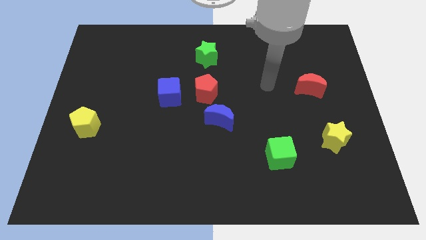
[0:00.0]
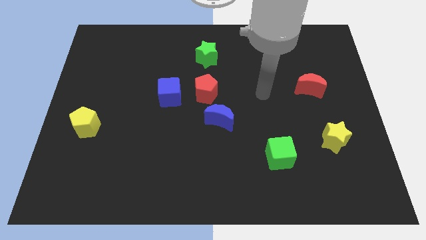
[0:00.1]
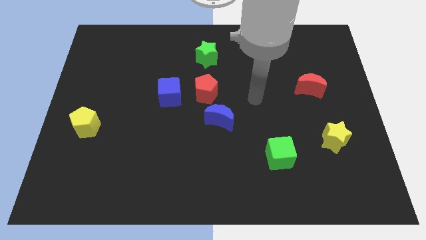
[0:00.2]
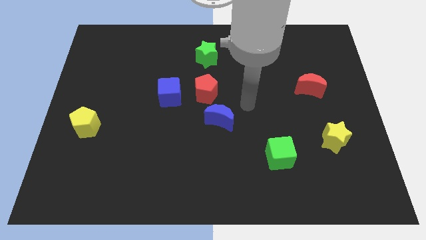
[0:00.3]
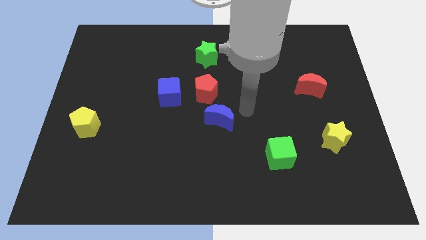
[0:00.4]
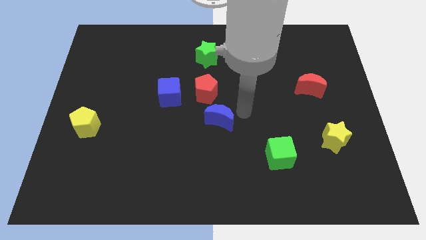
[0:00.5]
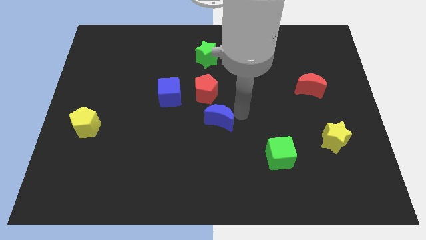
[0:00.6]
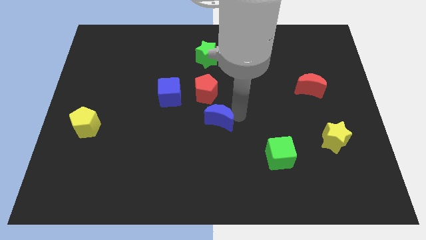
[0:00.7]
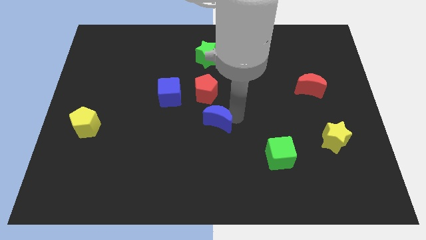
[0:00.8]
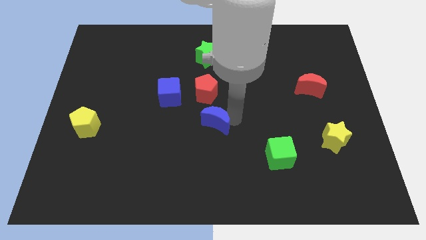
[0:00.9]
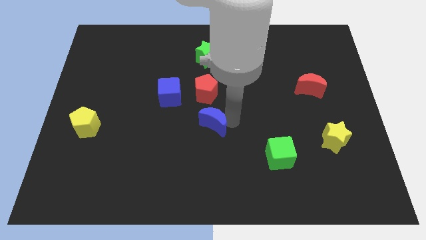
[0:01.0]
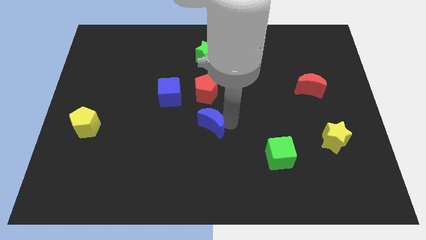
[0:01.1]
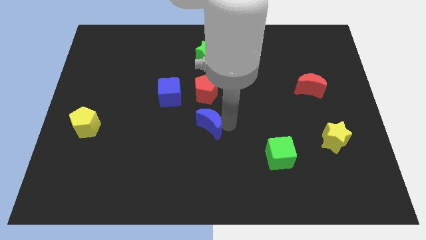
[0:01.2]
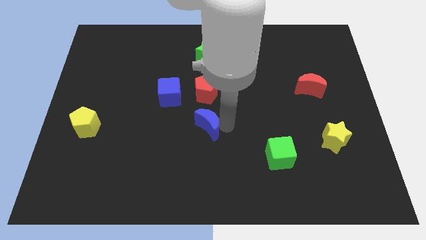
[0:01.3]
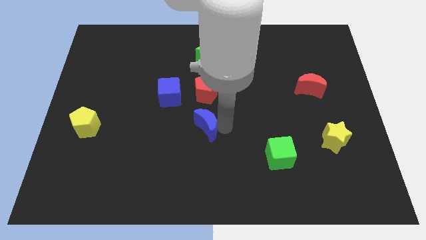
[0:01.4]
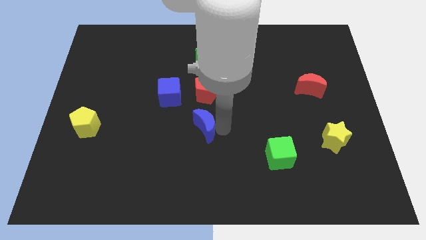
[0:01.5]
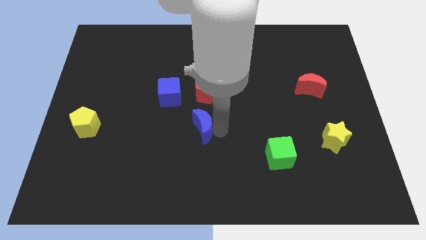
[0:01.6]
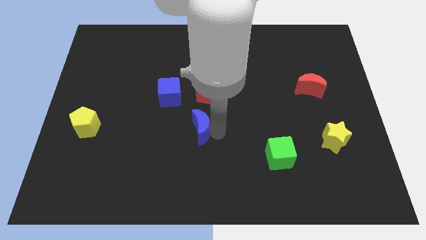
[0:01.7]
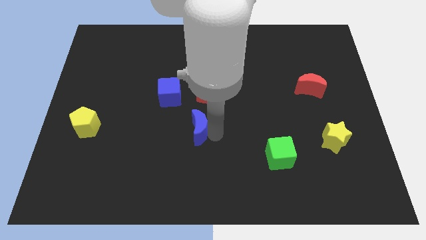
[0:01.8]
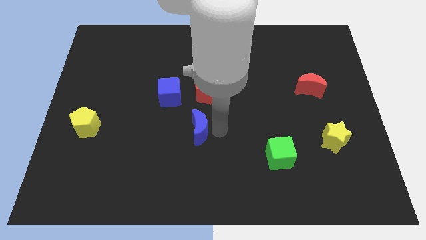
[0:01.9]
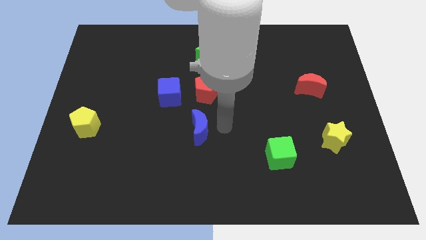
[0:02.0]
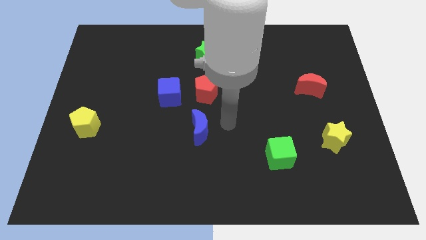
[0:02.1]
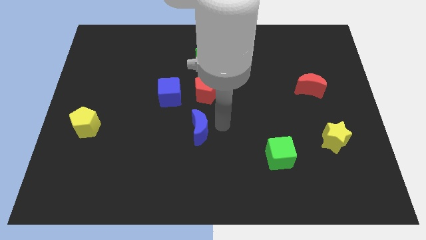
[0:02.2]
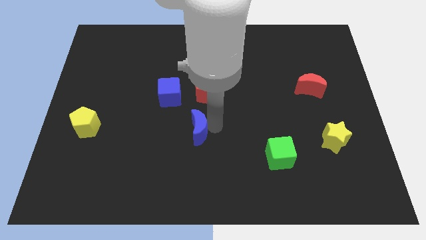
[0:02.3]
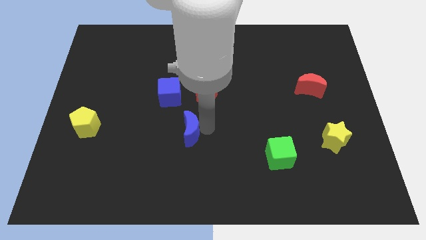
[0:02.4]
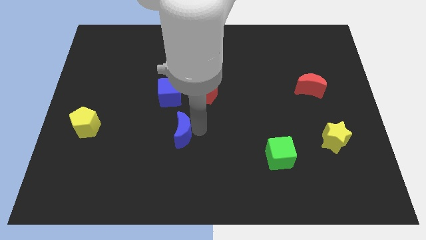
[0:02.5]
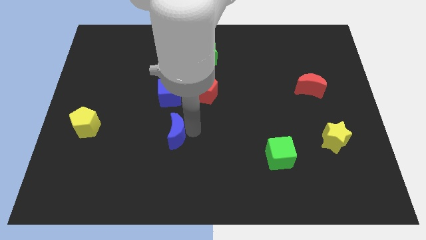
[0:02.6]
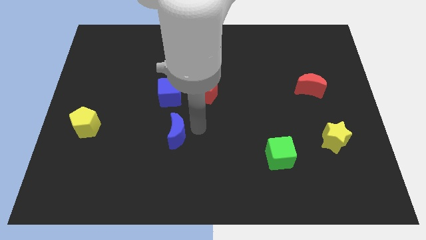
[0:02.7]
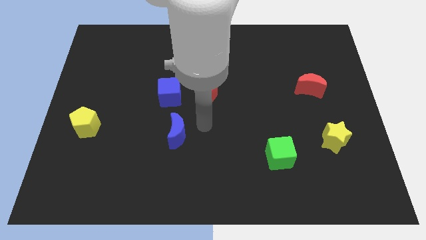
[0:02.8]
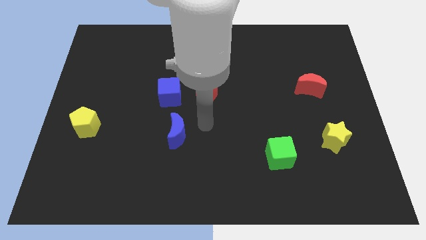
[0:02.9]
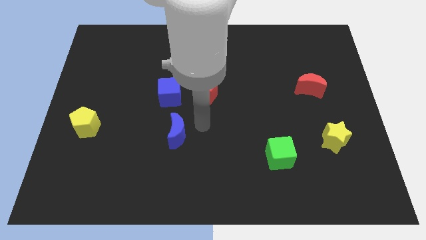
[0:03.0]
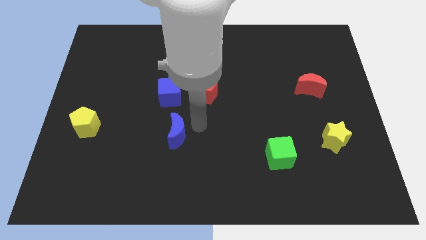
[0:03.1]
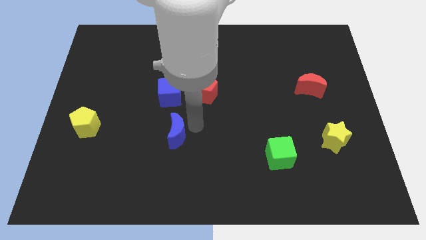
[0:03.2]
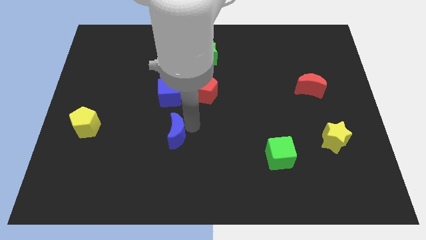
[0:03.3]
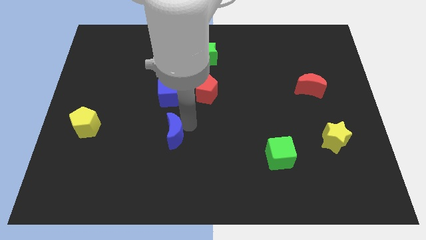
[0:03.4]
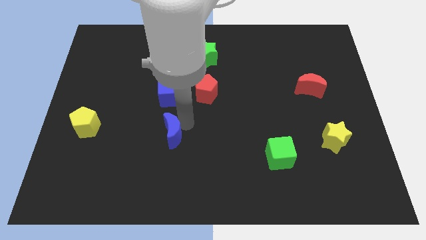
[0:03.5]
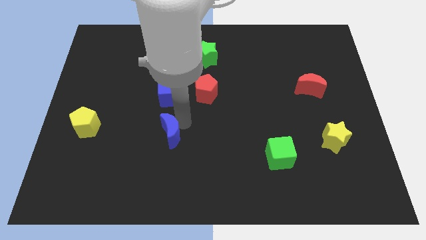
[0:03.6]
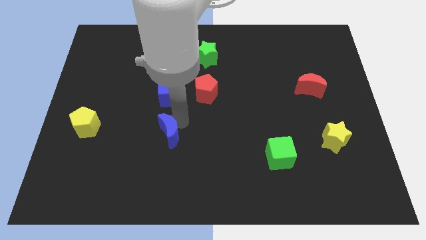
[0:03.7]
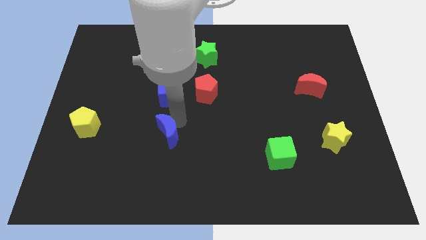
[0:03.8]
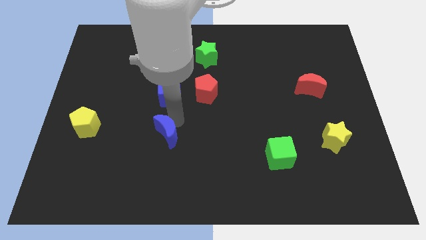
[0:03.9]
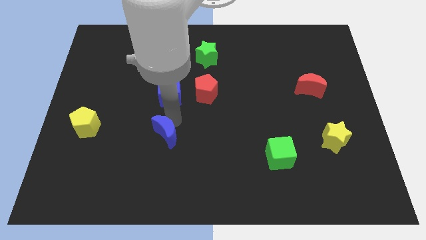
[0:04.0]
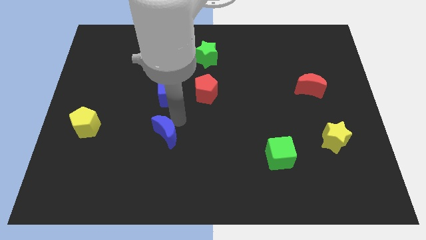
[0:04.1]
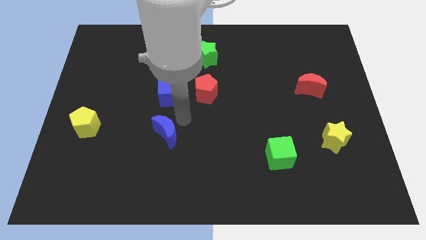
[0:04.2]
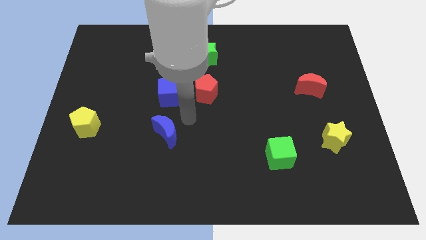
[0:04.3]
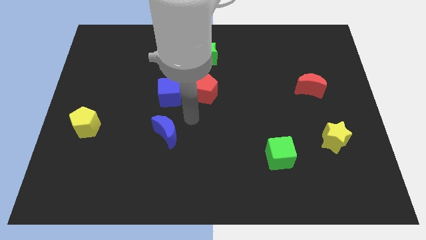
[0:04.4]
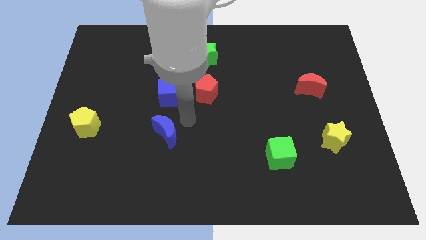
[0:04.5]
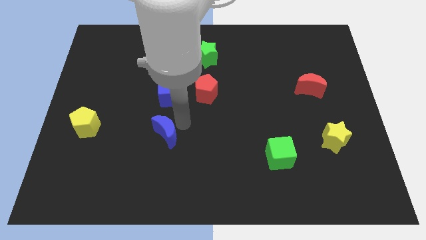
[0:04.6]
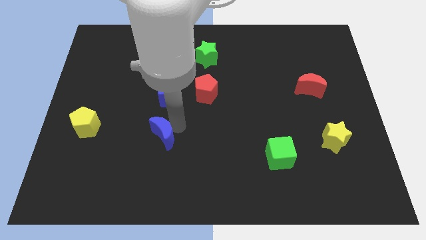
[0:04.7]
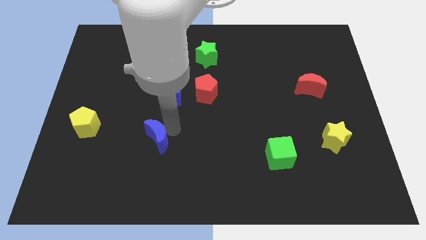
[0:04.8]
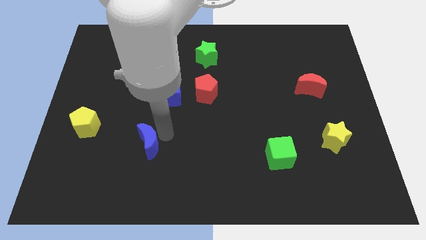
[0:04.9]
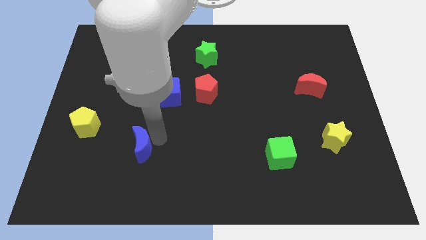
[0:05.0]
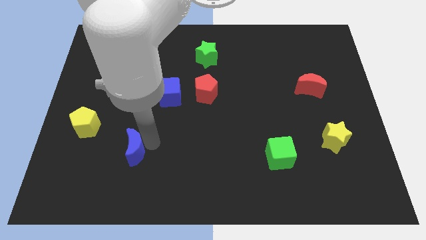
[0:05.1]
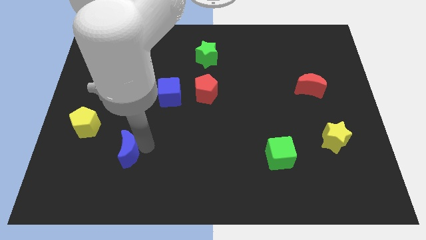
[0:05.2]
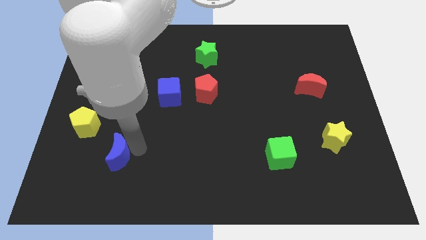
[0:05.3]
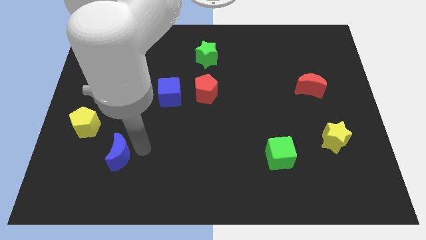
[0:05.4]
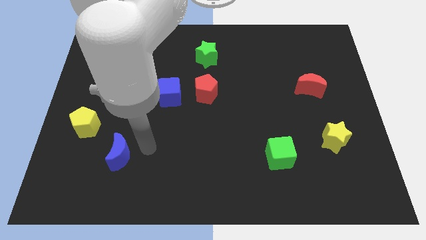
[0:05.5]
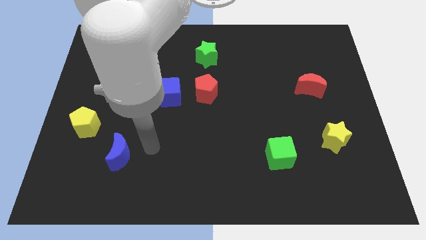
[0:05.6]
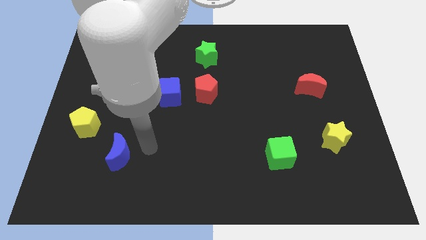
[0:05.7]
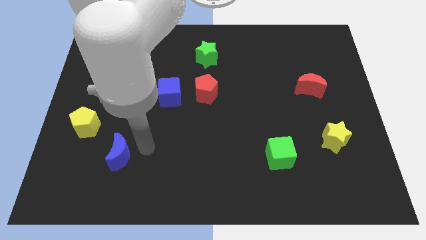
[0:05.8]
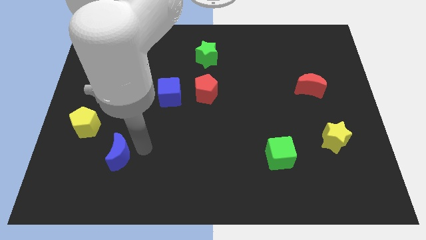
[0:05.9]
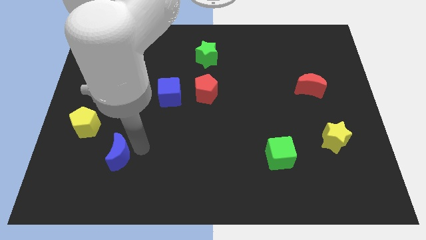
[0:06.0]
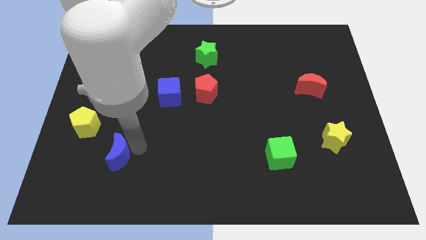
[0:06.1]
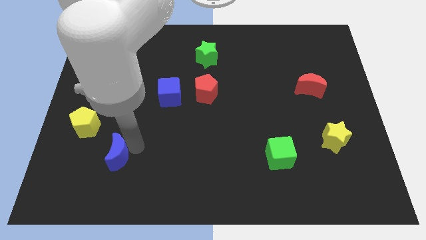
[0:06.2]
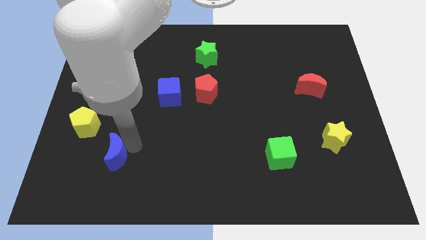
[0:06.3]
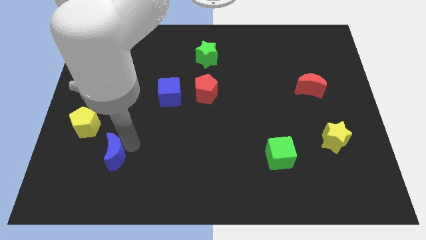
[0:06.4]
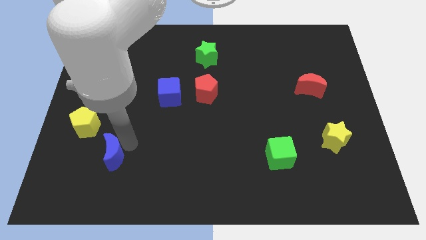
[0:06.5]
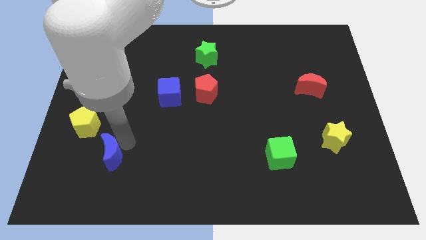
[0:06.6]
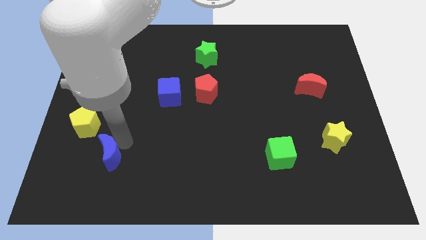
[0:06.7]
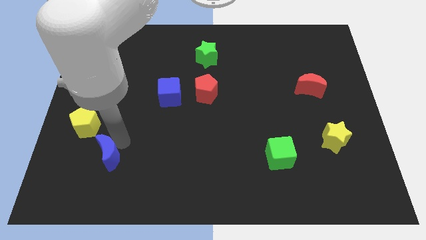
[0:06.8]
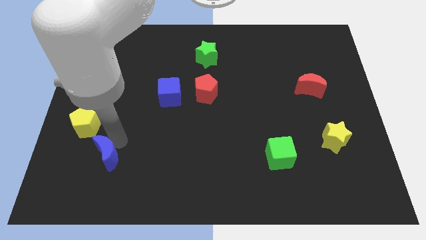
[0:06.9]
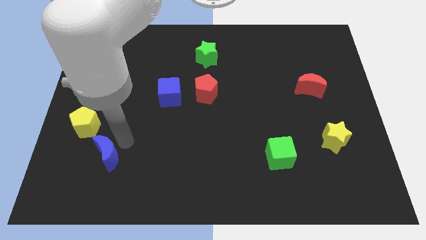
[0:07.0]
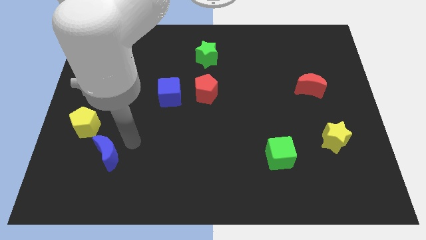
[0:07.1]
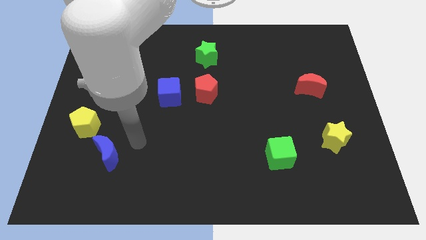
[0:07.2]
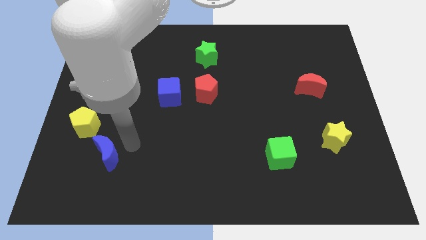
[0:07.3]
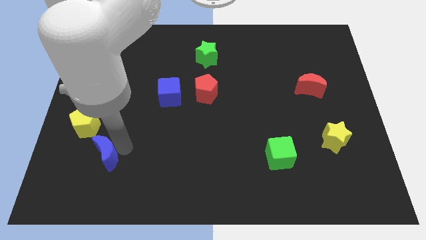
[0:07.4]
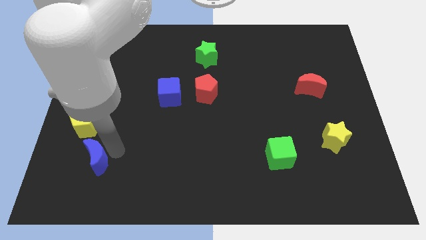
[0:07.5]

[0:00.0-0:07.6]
put the blue moon to the bottom of the yellow pentagon
